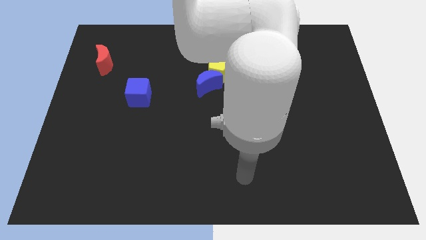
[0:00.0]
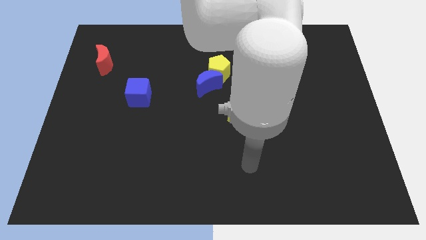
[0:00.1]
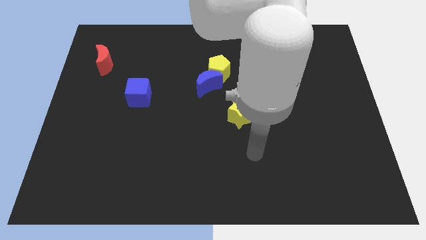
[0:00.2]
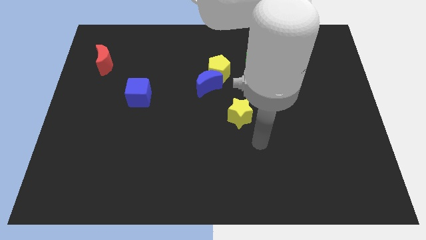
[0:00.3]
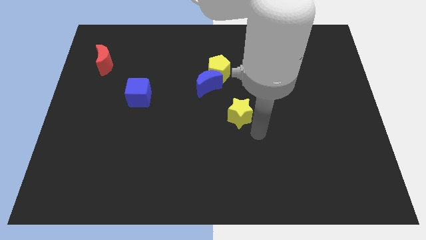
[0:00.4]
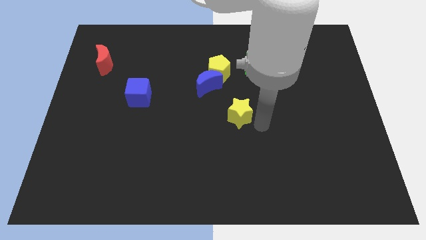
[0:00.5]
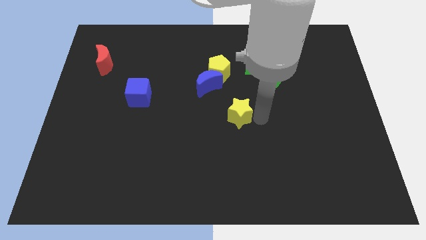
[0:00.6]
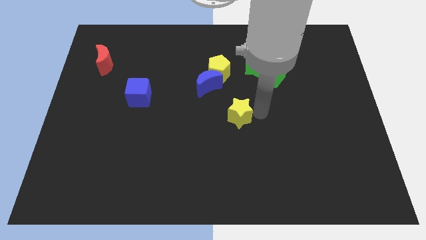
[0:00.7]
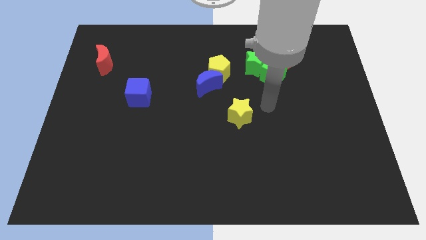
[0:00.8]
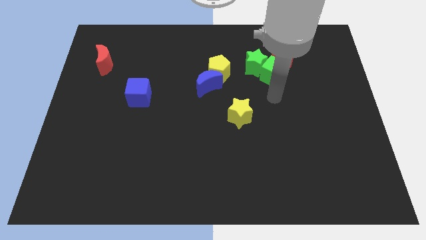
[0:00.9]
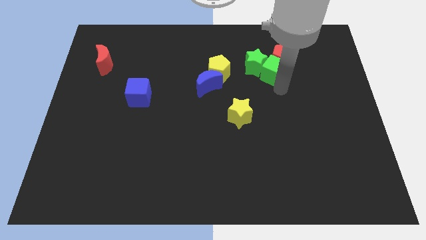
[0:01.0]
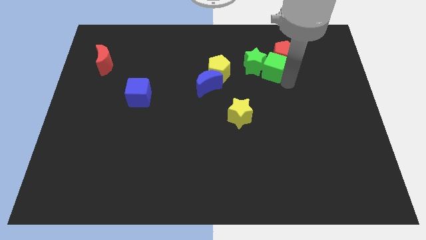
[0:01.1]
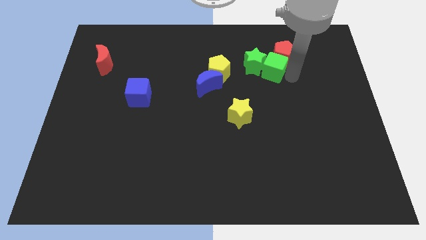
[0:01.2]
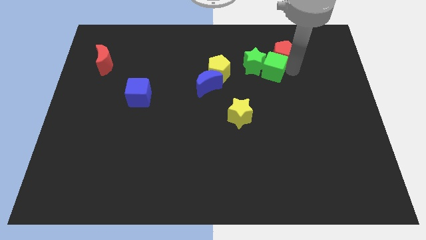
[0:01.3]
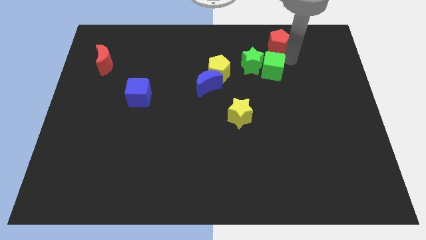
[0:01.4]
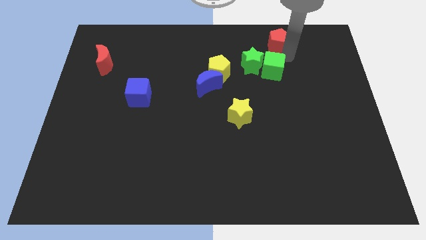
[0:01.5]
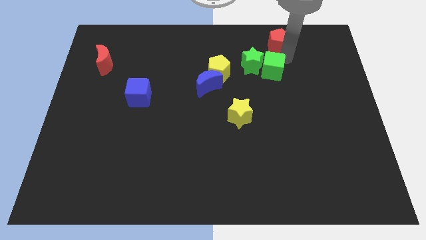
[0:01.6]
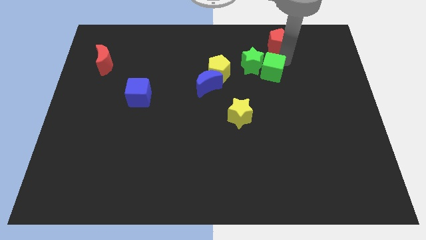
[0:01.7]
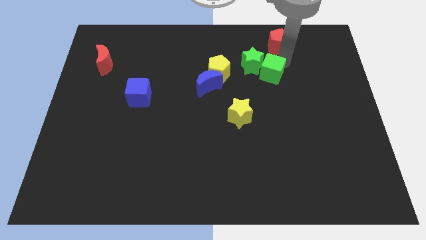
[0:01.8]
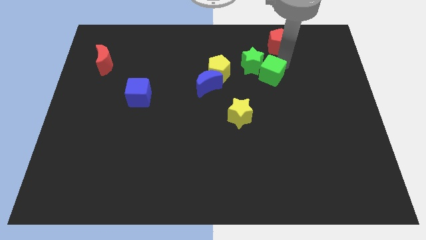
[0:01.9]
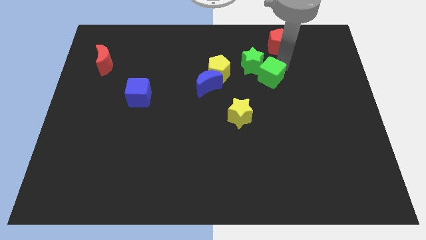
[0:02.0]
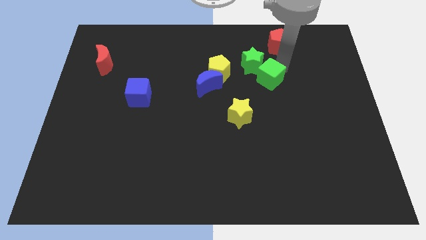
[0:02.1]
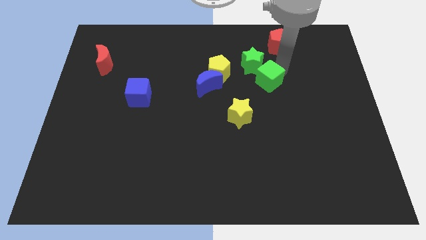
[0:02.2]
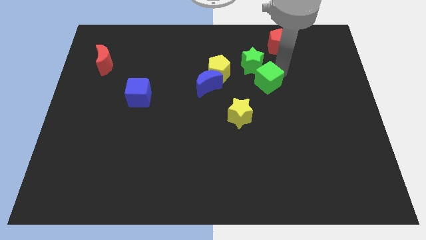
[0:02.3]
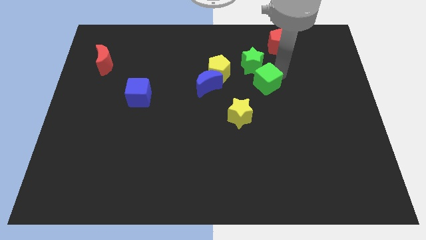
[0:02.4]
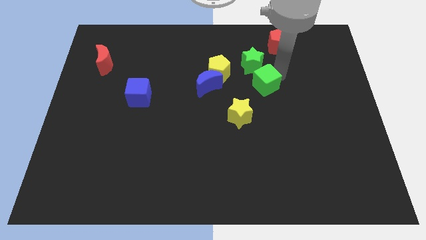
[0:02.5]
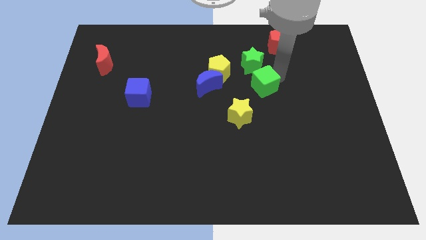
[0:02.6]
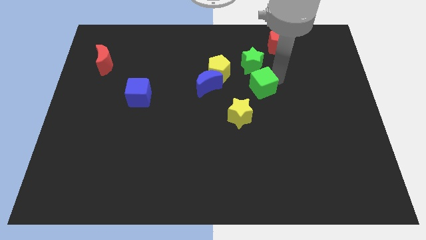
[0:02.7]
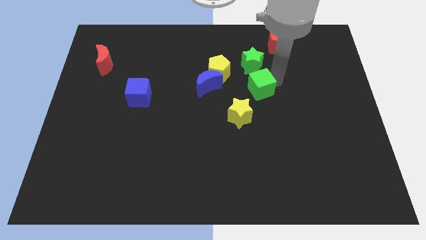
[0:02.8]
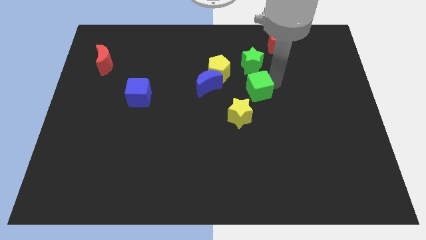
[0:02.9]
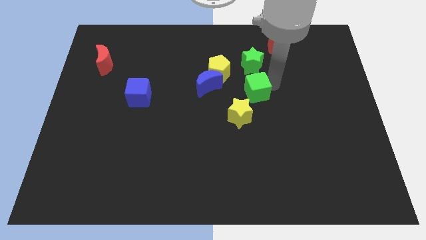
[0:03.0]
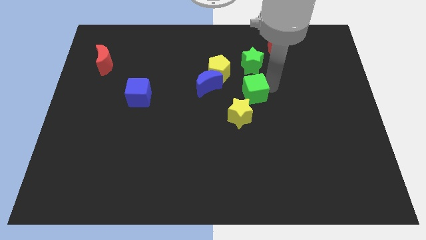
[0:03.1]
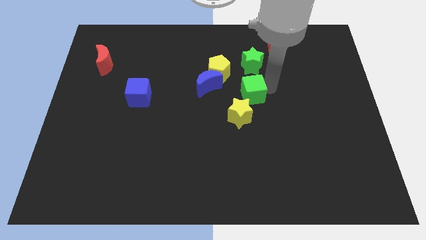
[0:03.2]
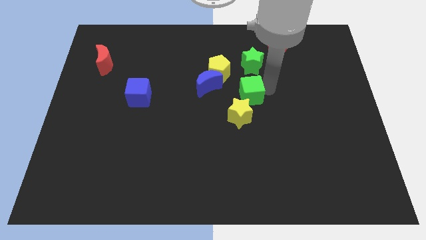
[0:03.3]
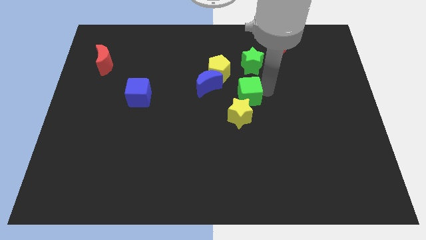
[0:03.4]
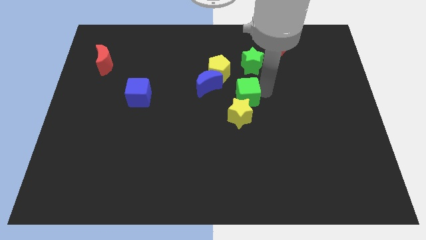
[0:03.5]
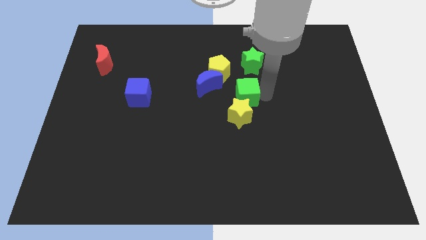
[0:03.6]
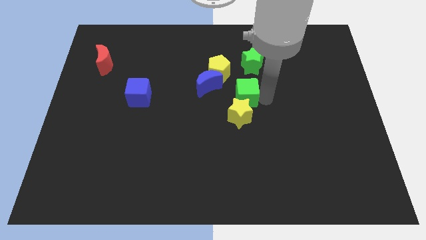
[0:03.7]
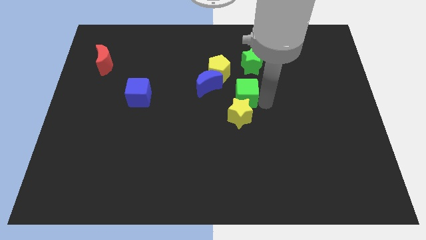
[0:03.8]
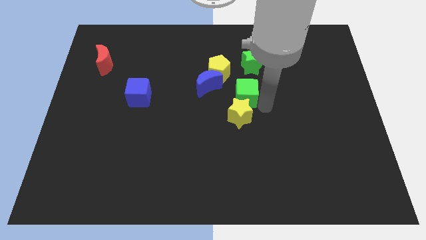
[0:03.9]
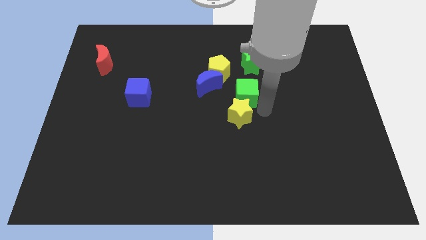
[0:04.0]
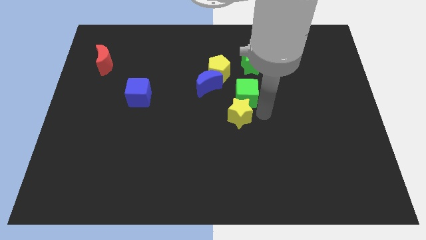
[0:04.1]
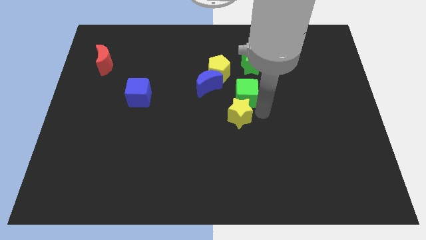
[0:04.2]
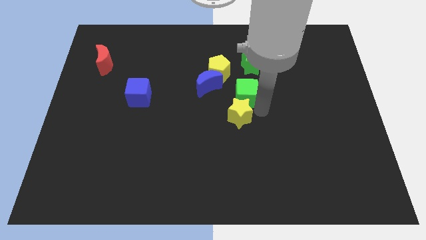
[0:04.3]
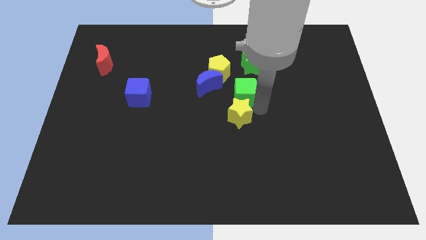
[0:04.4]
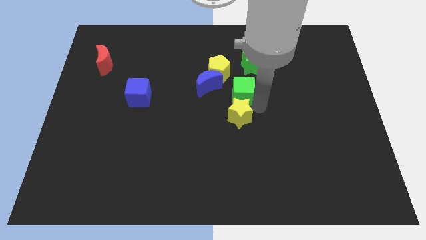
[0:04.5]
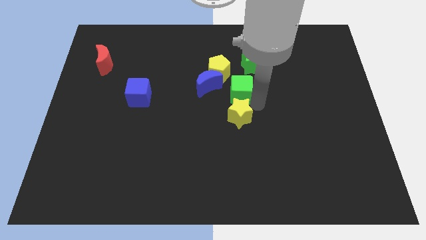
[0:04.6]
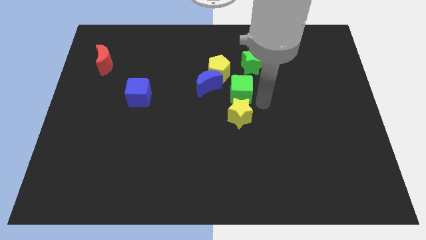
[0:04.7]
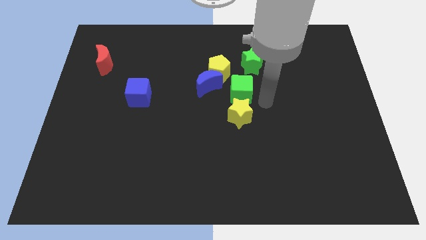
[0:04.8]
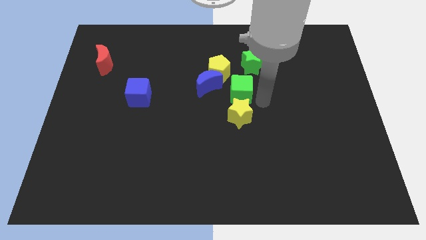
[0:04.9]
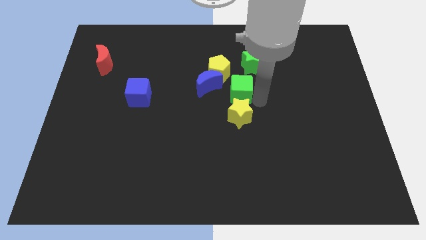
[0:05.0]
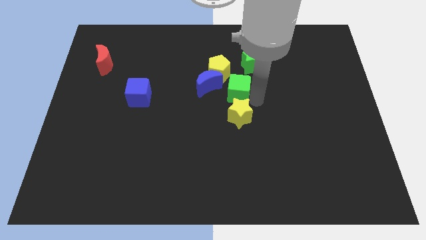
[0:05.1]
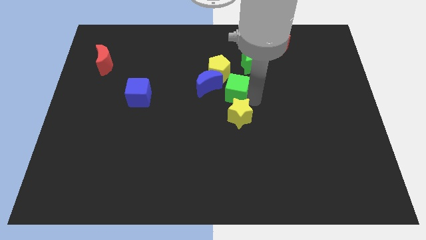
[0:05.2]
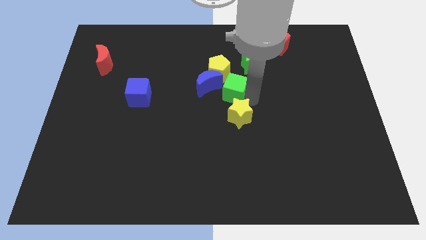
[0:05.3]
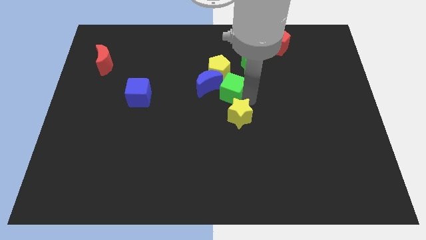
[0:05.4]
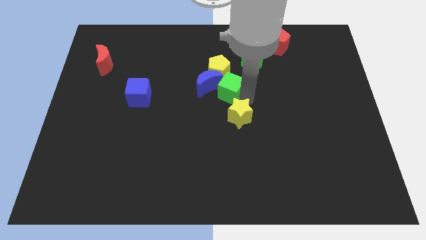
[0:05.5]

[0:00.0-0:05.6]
put the green cube to the blue moon

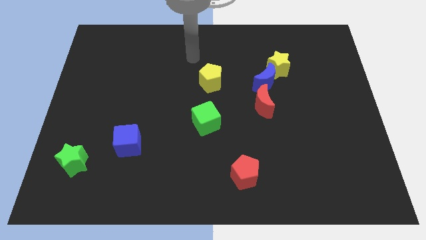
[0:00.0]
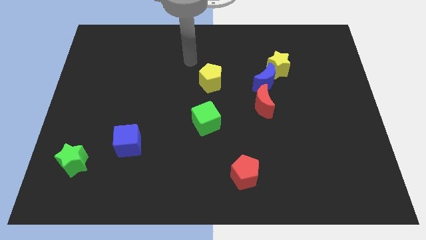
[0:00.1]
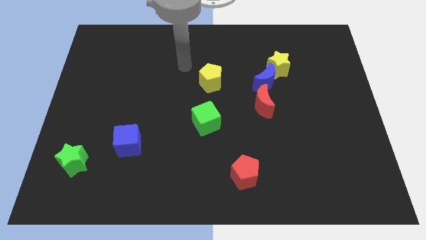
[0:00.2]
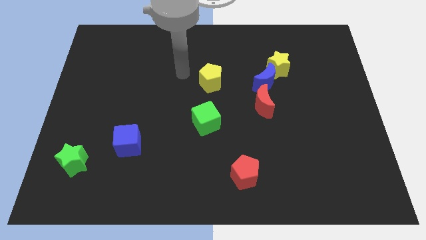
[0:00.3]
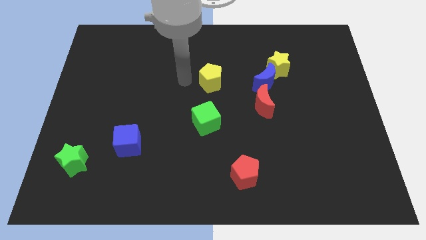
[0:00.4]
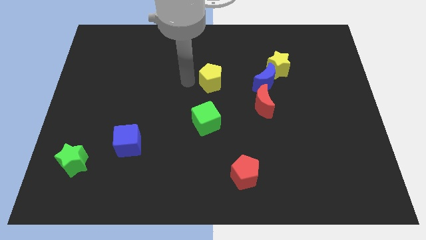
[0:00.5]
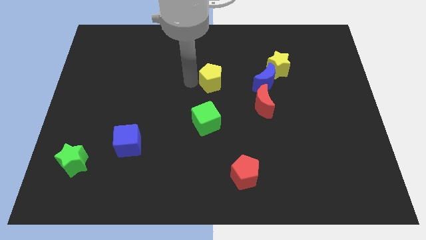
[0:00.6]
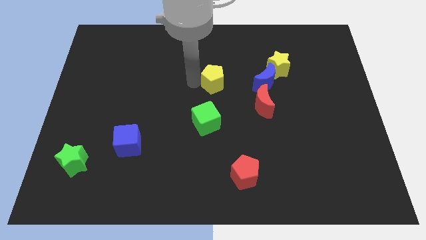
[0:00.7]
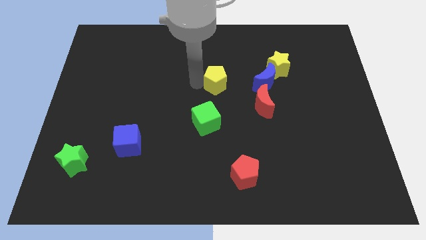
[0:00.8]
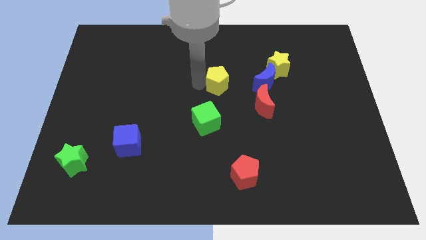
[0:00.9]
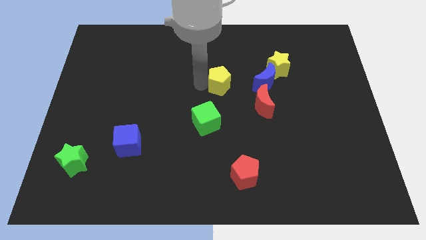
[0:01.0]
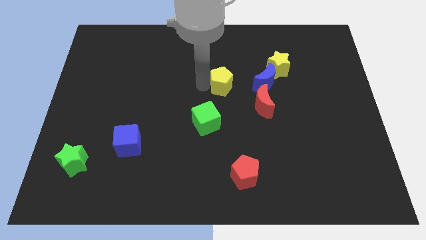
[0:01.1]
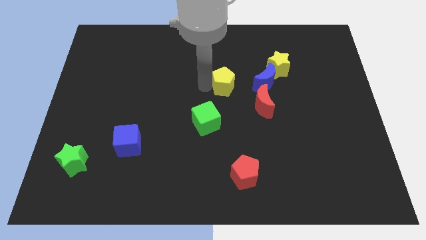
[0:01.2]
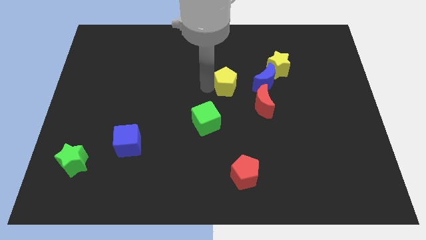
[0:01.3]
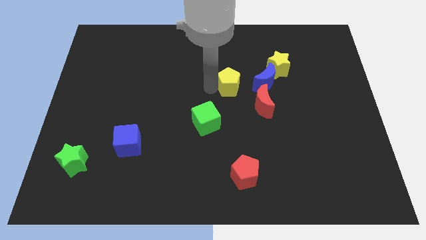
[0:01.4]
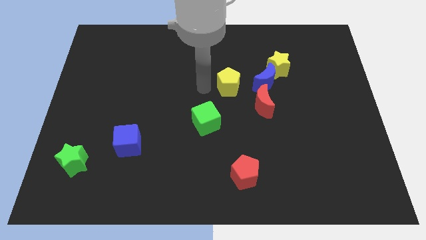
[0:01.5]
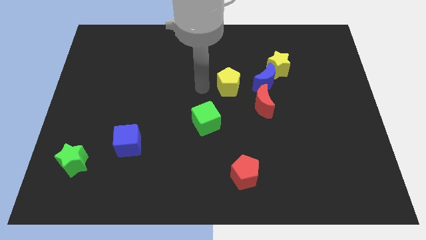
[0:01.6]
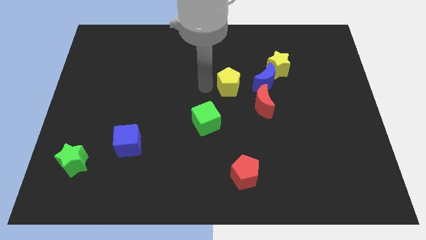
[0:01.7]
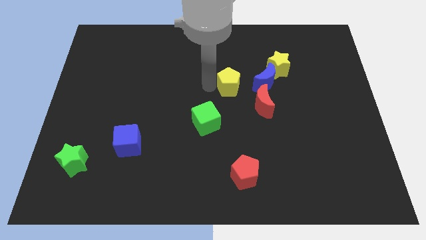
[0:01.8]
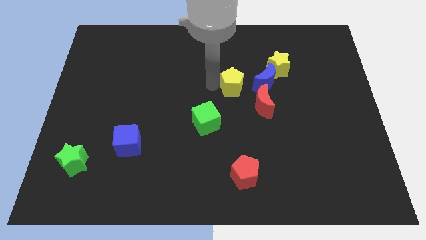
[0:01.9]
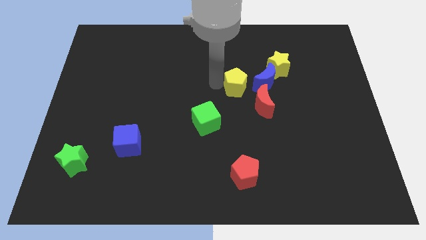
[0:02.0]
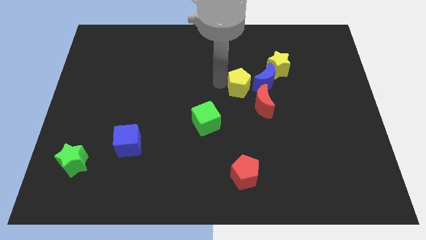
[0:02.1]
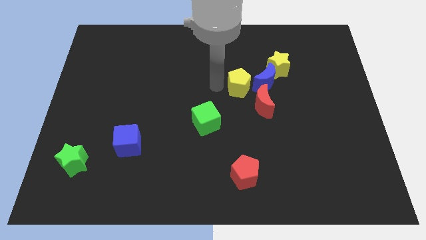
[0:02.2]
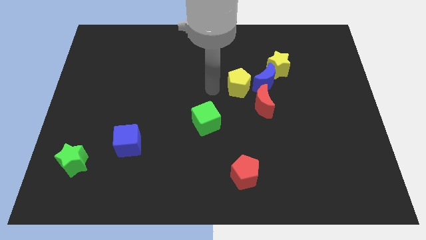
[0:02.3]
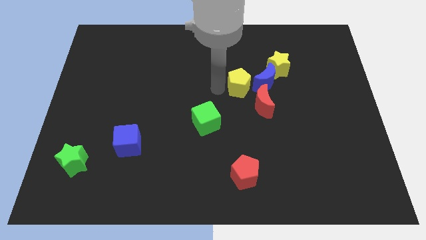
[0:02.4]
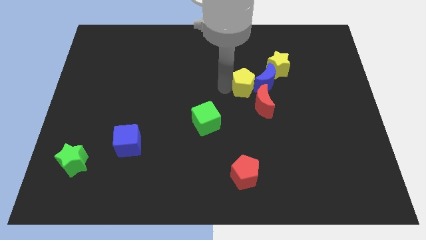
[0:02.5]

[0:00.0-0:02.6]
push the yellow pentagon to the blue moon
